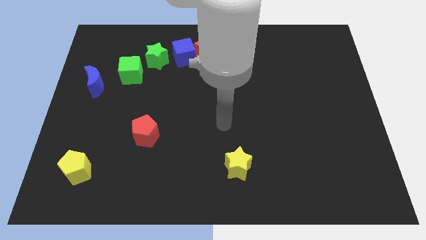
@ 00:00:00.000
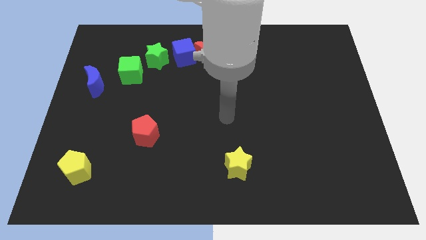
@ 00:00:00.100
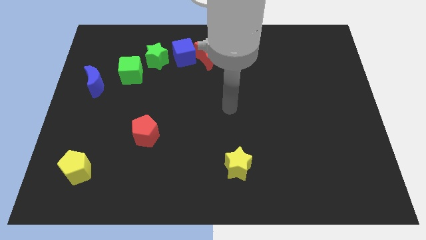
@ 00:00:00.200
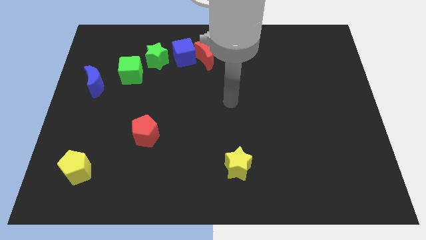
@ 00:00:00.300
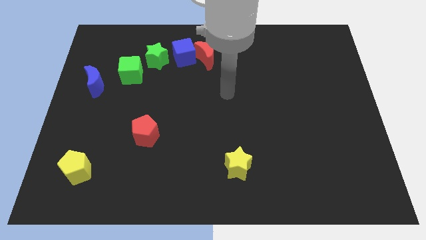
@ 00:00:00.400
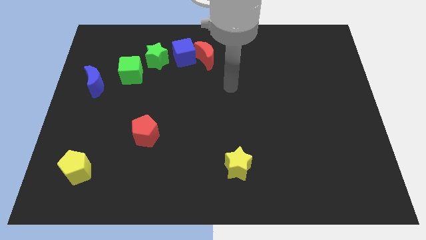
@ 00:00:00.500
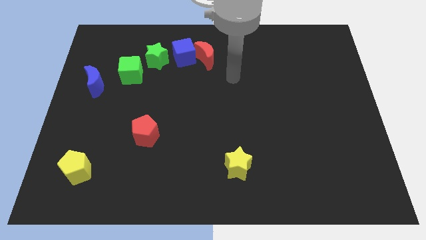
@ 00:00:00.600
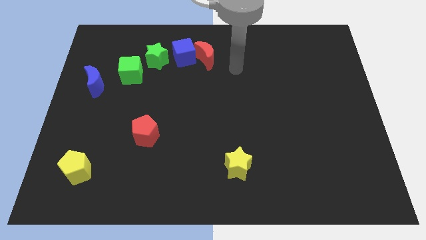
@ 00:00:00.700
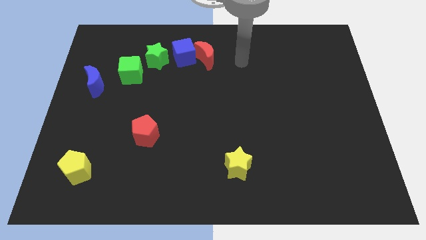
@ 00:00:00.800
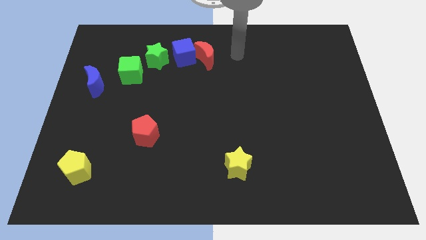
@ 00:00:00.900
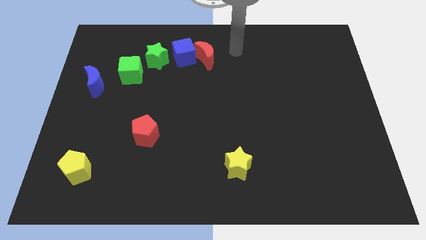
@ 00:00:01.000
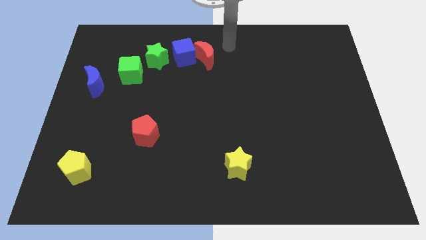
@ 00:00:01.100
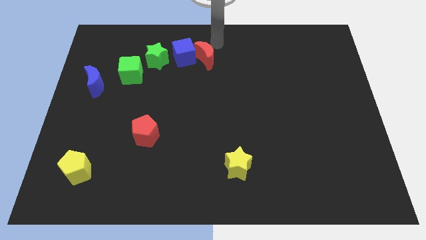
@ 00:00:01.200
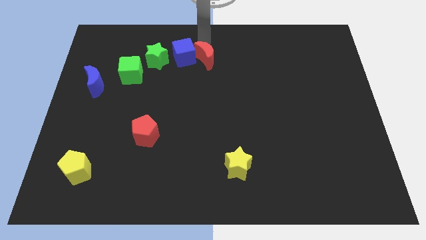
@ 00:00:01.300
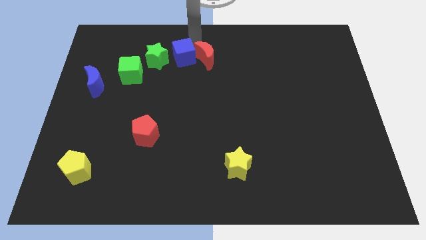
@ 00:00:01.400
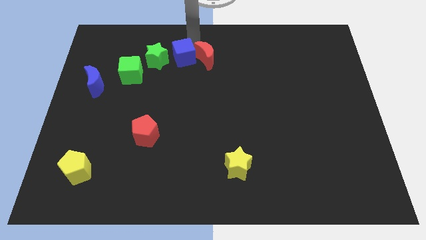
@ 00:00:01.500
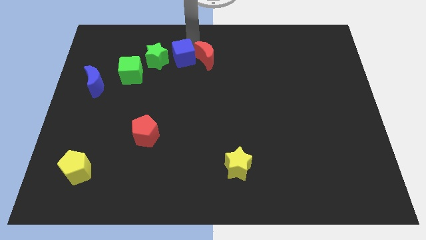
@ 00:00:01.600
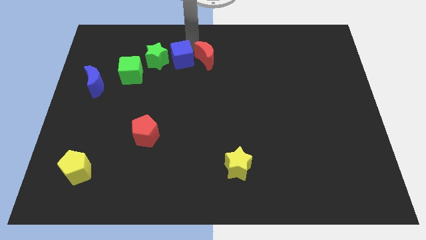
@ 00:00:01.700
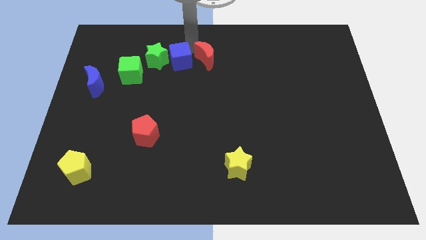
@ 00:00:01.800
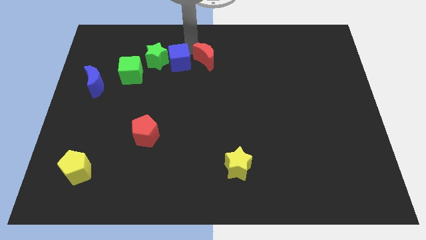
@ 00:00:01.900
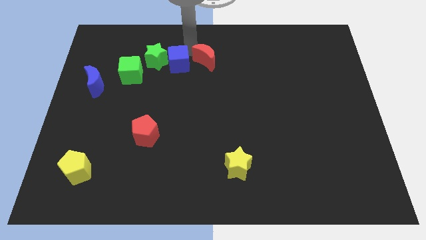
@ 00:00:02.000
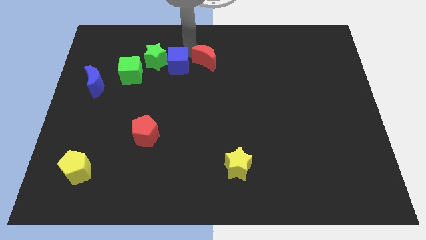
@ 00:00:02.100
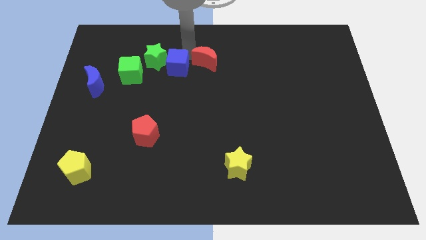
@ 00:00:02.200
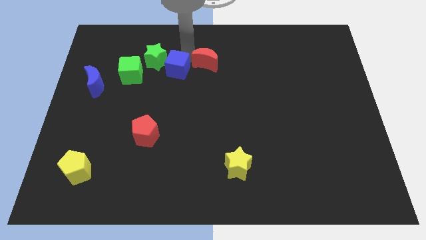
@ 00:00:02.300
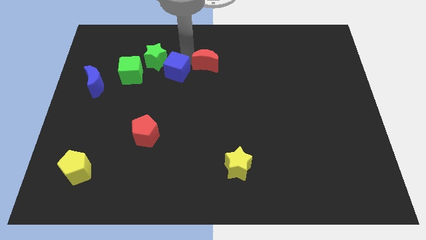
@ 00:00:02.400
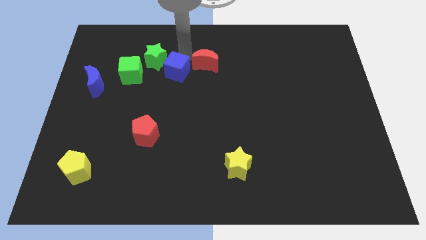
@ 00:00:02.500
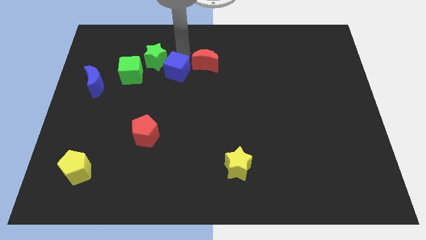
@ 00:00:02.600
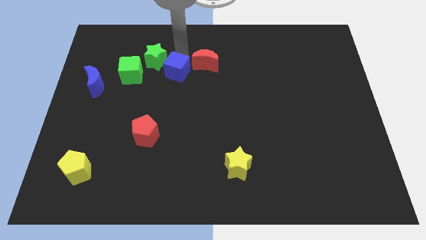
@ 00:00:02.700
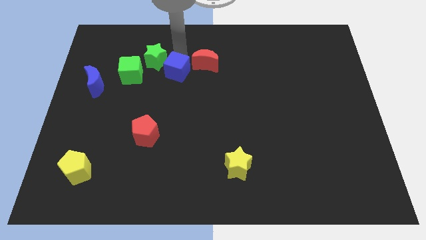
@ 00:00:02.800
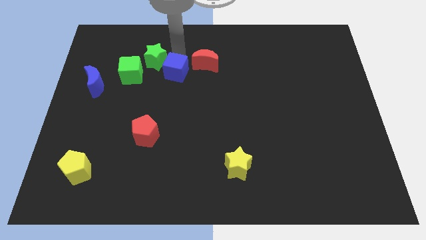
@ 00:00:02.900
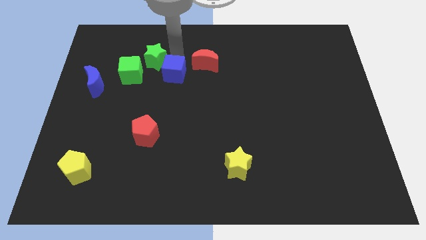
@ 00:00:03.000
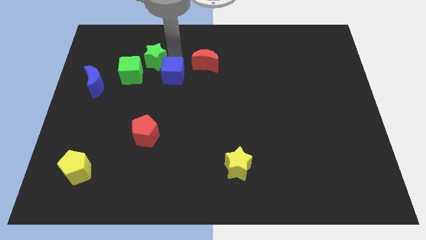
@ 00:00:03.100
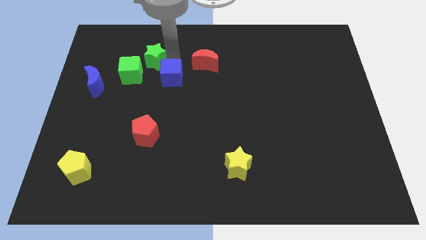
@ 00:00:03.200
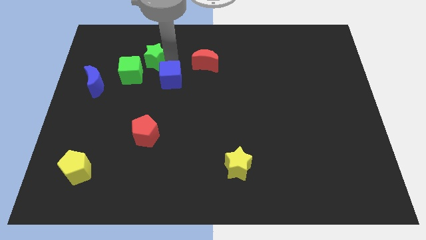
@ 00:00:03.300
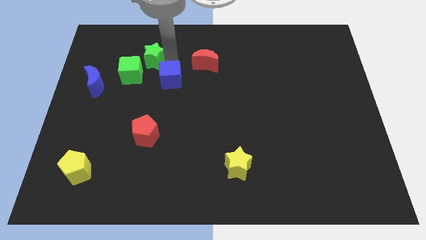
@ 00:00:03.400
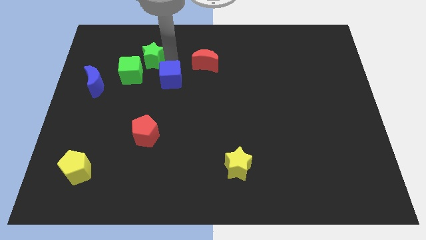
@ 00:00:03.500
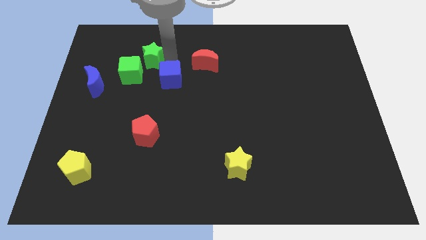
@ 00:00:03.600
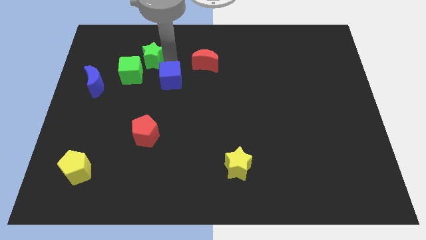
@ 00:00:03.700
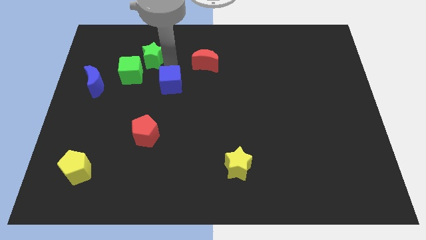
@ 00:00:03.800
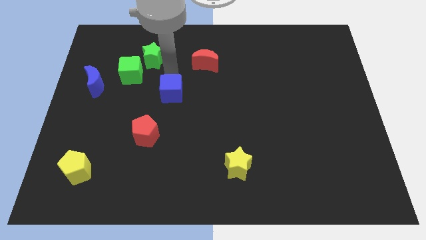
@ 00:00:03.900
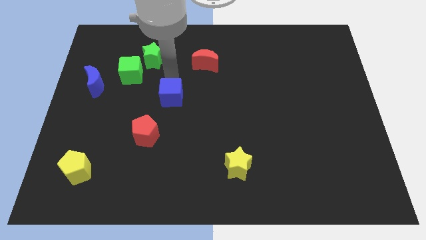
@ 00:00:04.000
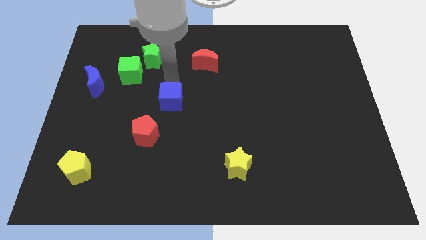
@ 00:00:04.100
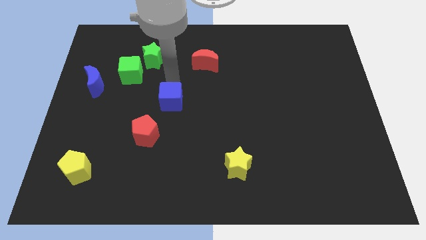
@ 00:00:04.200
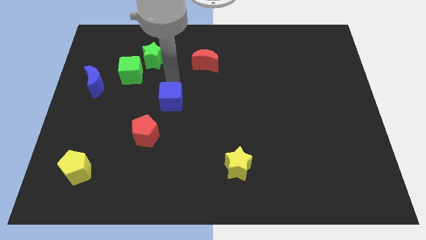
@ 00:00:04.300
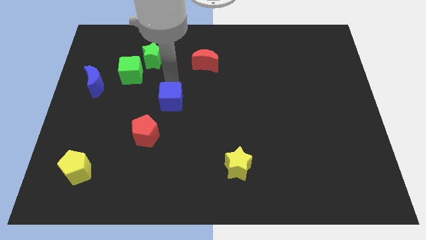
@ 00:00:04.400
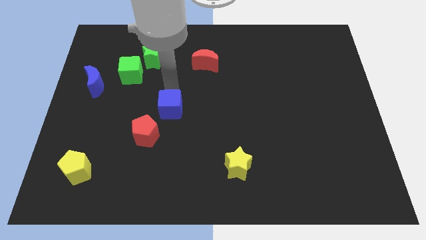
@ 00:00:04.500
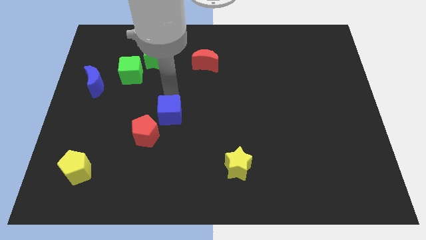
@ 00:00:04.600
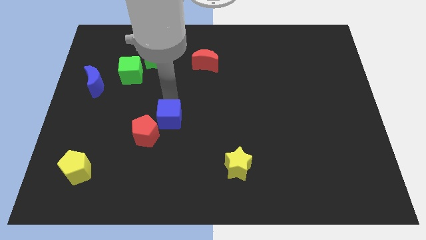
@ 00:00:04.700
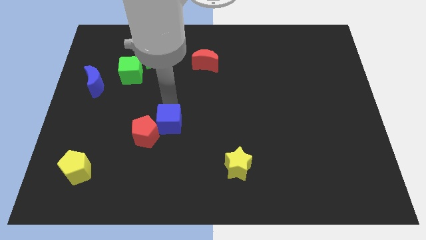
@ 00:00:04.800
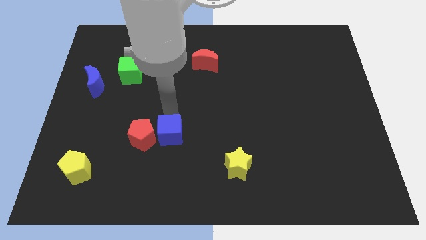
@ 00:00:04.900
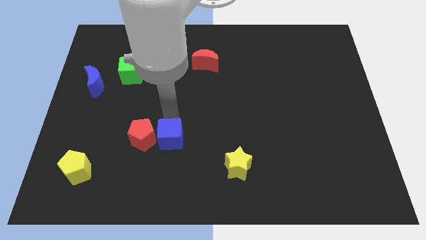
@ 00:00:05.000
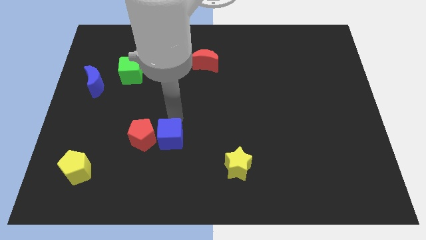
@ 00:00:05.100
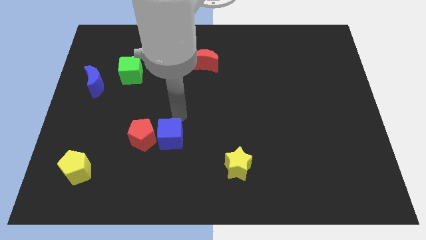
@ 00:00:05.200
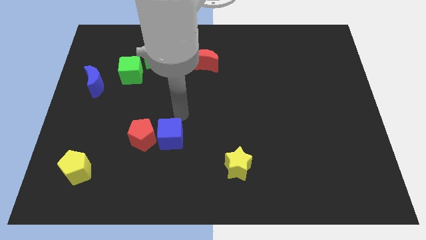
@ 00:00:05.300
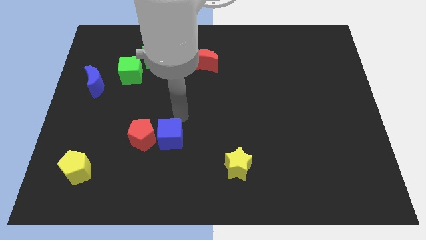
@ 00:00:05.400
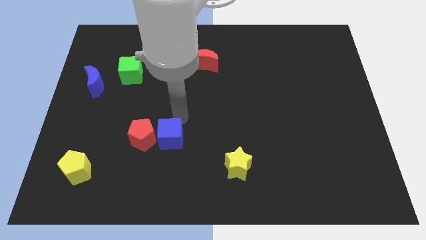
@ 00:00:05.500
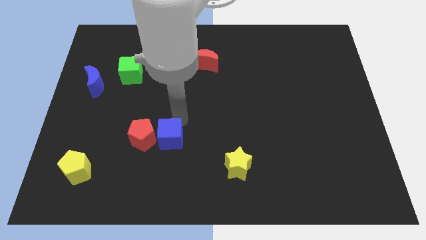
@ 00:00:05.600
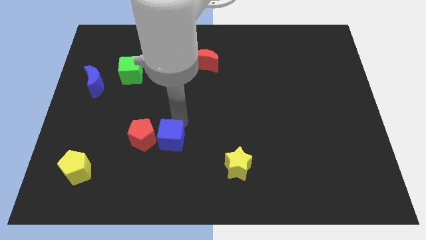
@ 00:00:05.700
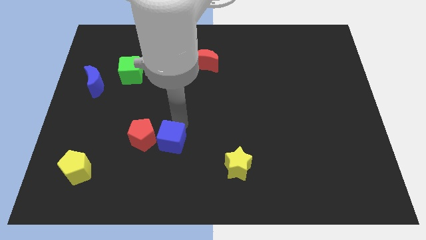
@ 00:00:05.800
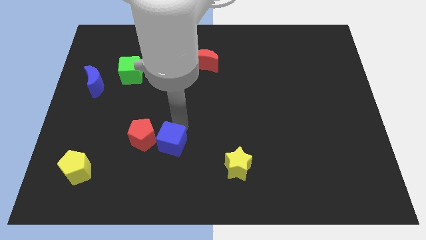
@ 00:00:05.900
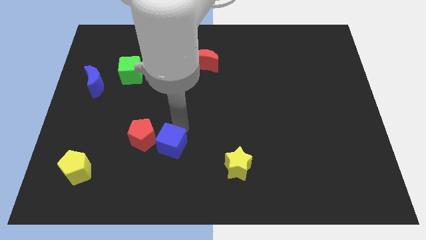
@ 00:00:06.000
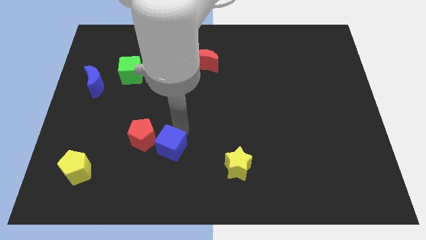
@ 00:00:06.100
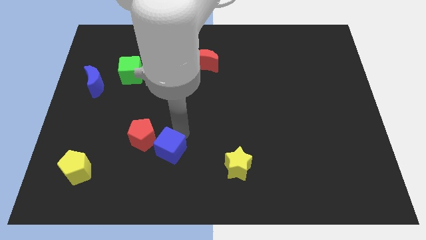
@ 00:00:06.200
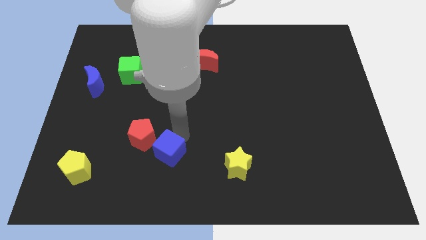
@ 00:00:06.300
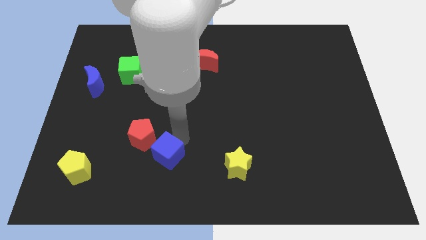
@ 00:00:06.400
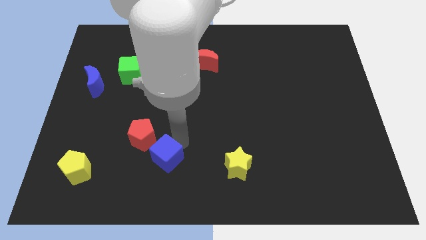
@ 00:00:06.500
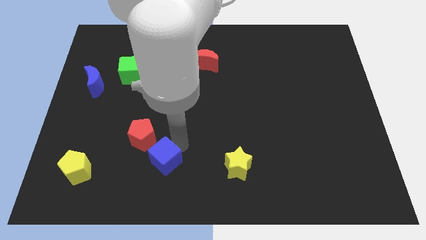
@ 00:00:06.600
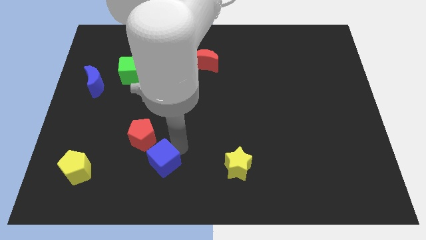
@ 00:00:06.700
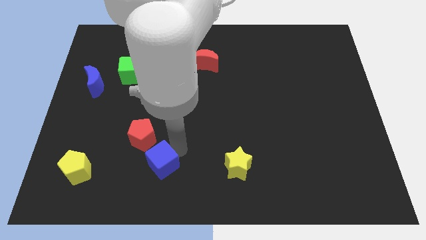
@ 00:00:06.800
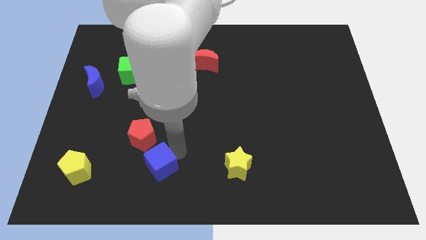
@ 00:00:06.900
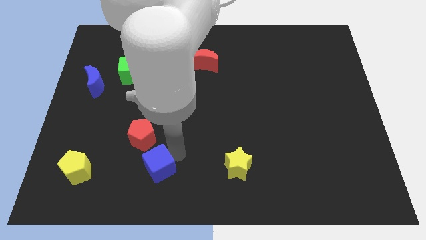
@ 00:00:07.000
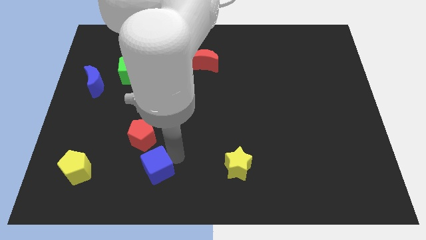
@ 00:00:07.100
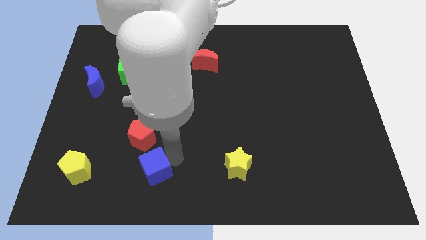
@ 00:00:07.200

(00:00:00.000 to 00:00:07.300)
move the blue cube right of the yellow pentagon
